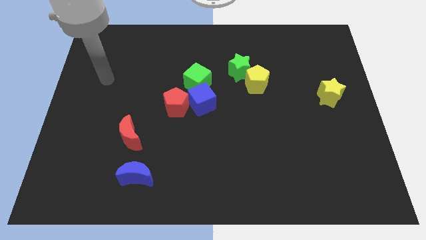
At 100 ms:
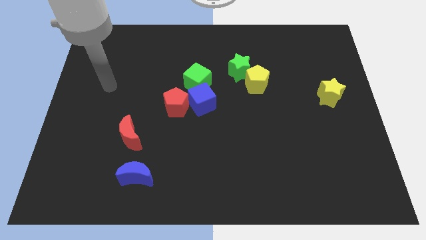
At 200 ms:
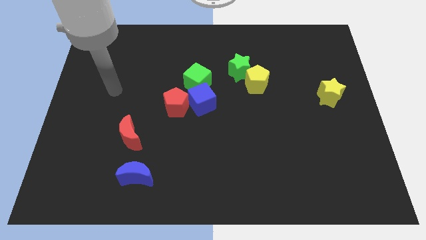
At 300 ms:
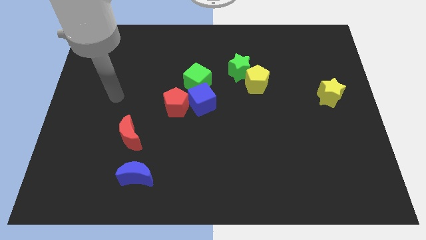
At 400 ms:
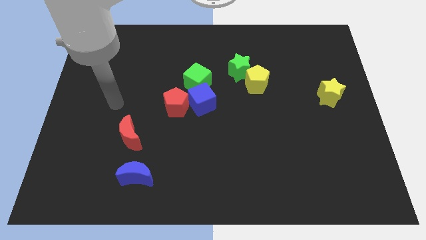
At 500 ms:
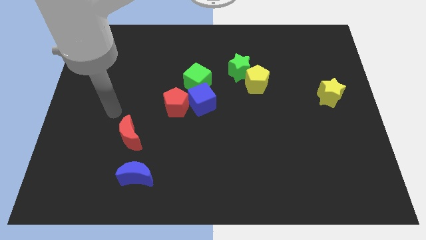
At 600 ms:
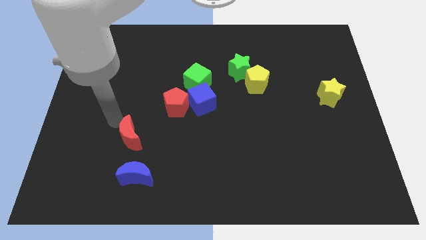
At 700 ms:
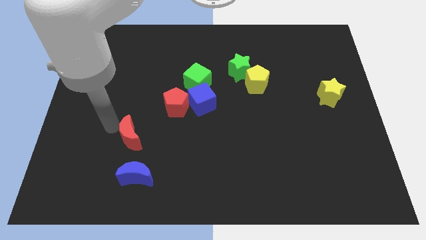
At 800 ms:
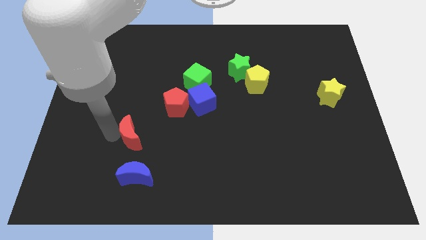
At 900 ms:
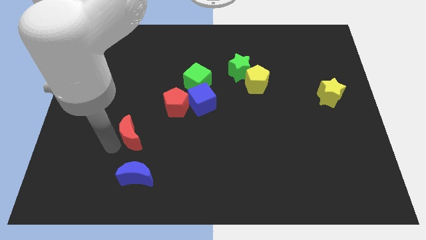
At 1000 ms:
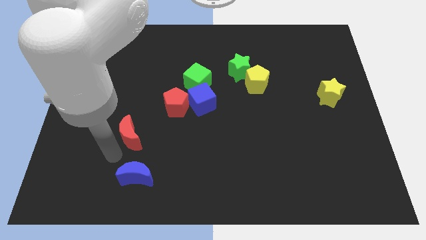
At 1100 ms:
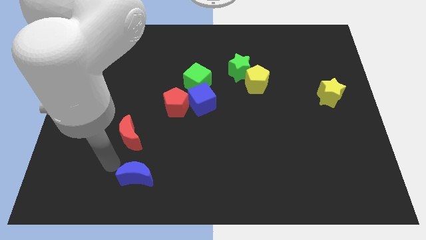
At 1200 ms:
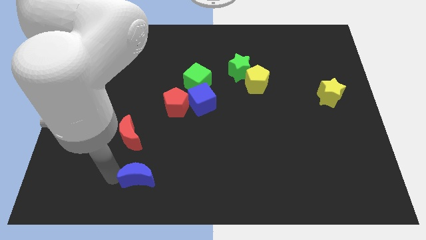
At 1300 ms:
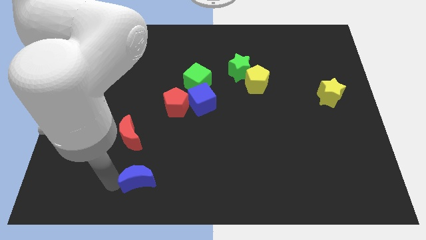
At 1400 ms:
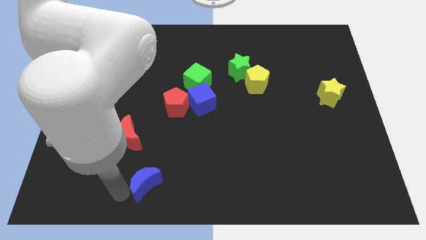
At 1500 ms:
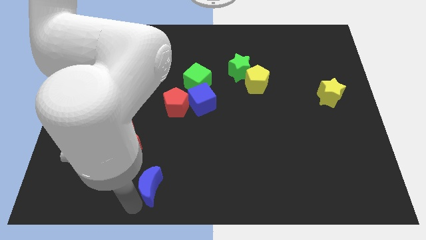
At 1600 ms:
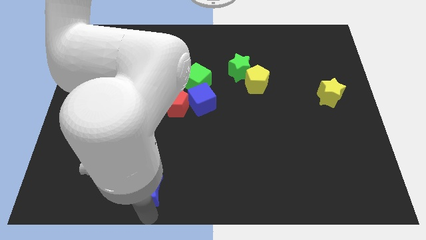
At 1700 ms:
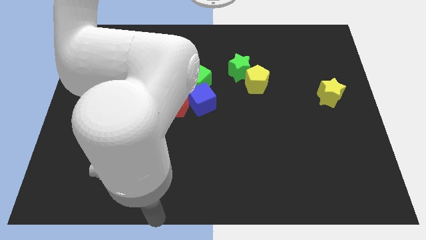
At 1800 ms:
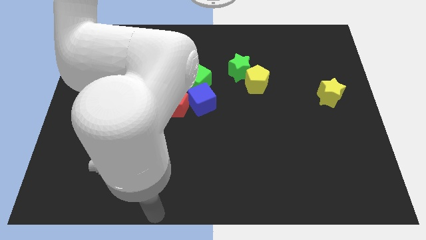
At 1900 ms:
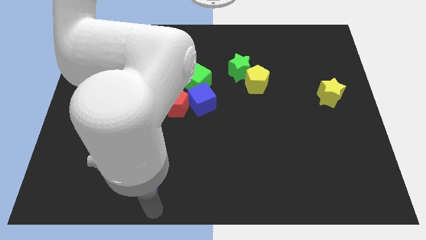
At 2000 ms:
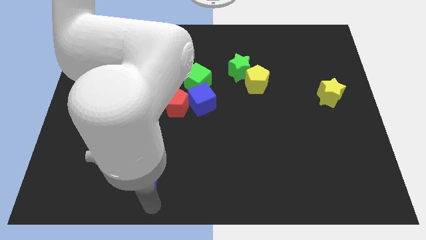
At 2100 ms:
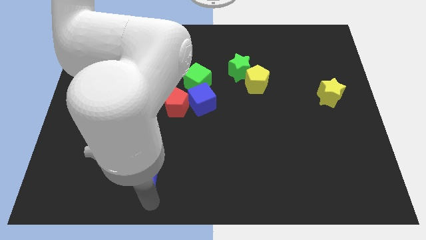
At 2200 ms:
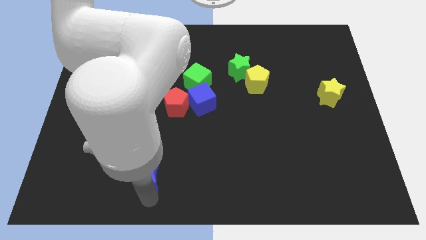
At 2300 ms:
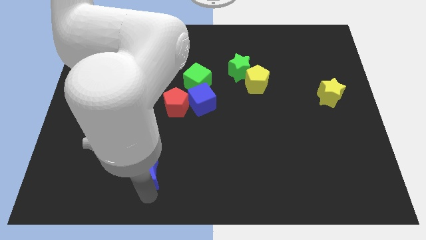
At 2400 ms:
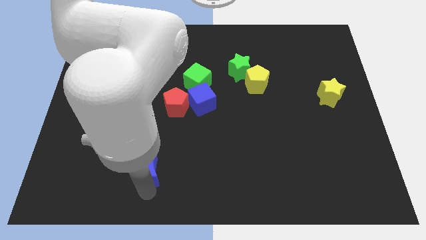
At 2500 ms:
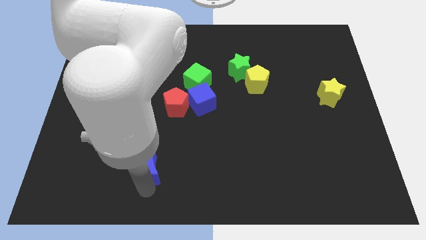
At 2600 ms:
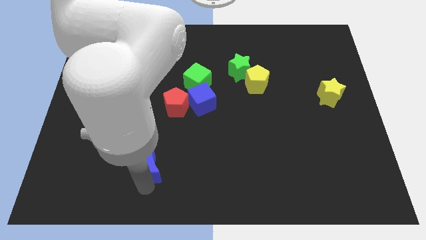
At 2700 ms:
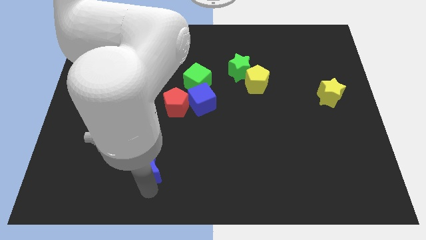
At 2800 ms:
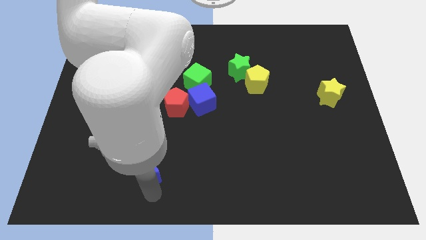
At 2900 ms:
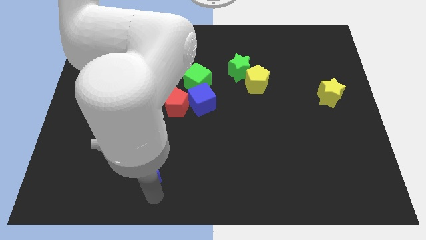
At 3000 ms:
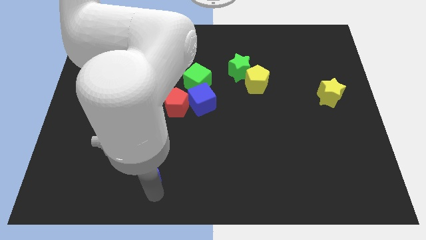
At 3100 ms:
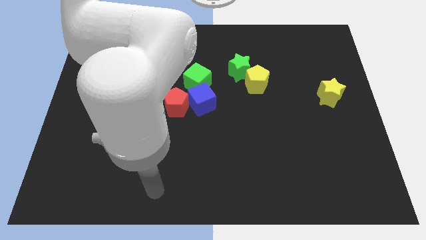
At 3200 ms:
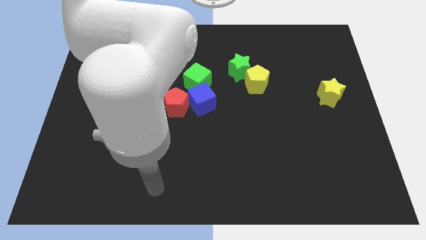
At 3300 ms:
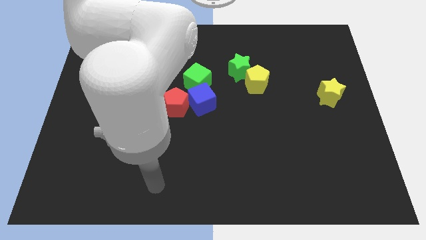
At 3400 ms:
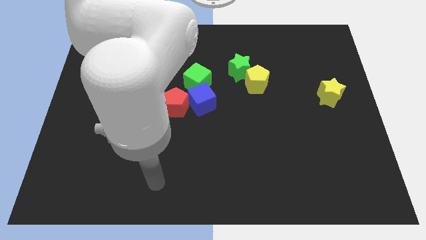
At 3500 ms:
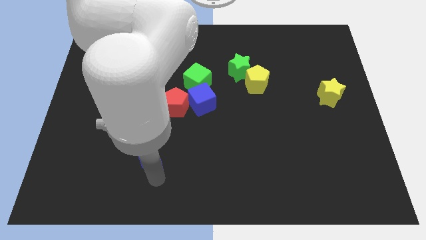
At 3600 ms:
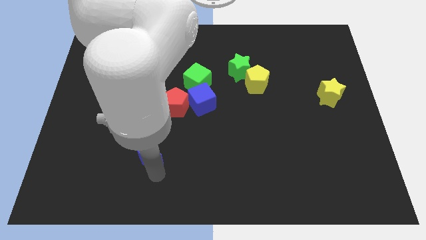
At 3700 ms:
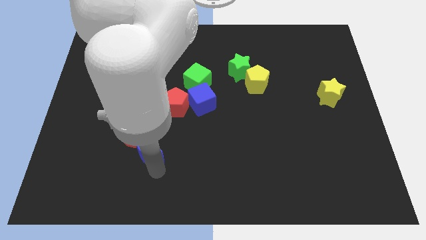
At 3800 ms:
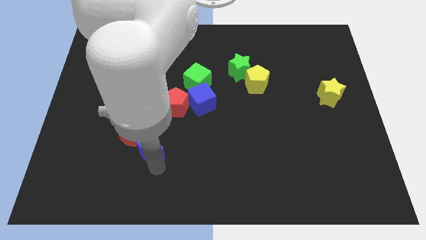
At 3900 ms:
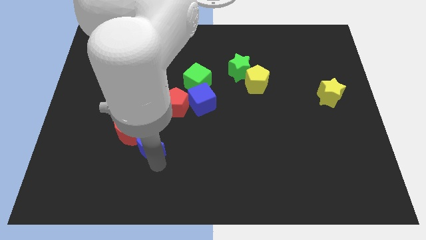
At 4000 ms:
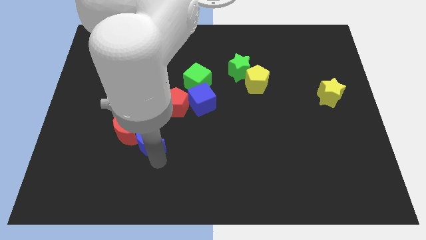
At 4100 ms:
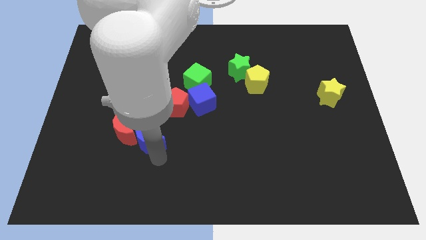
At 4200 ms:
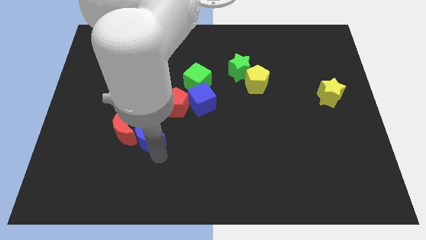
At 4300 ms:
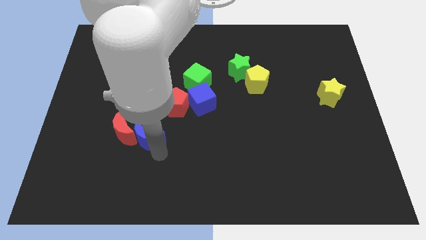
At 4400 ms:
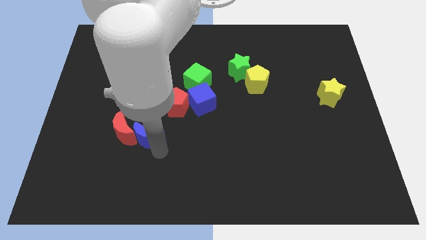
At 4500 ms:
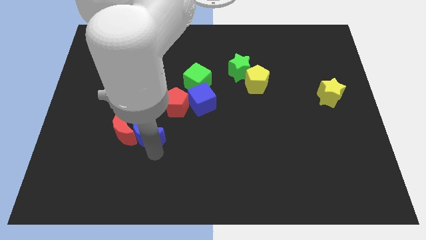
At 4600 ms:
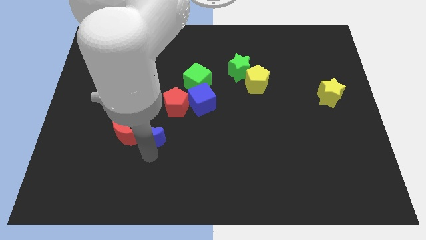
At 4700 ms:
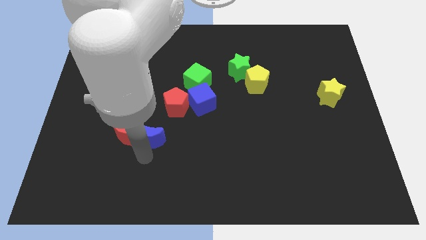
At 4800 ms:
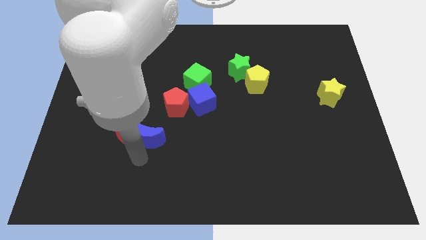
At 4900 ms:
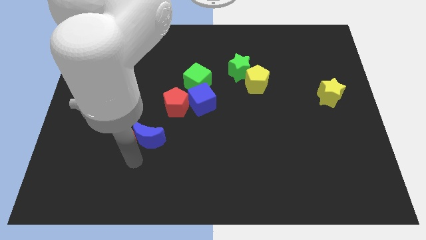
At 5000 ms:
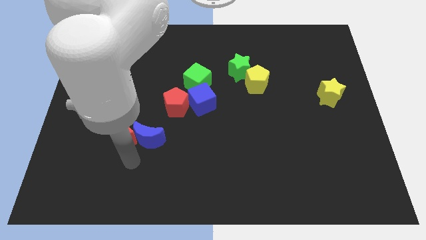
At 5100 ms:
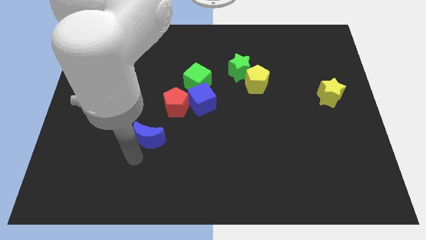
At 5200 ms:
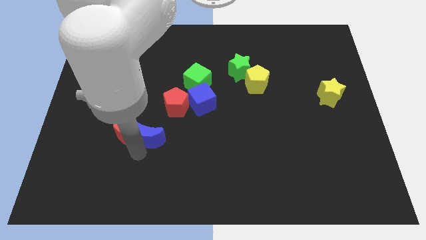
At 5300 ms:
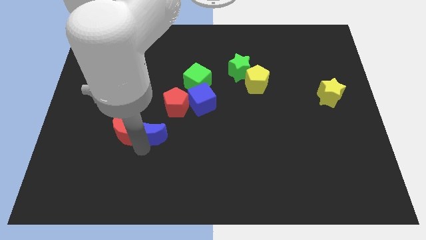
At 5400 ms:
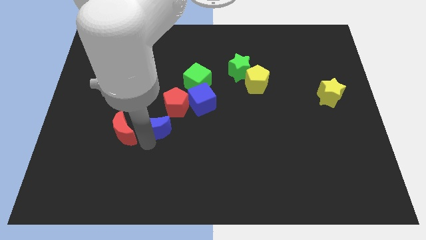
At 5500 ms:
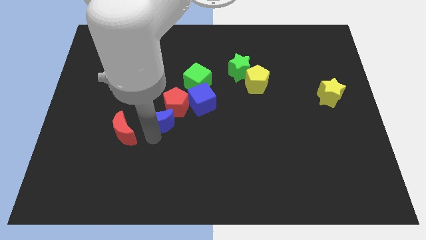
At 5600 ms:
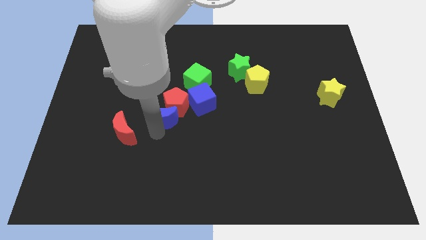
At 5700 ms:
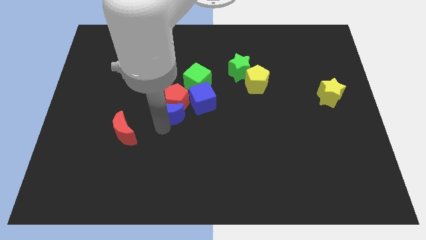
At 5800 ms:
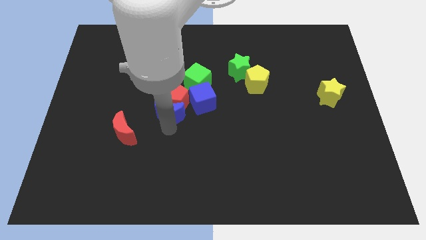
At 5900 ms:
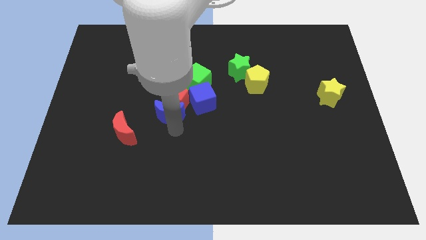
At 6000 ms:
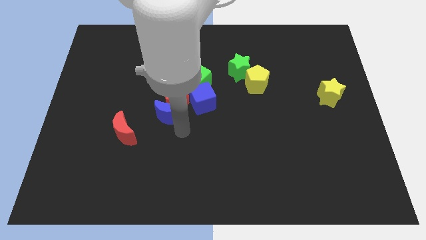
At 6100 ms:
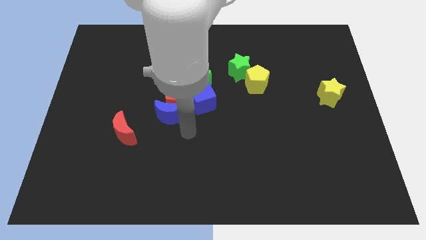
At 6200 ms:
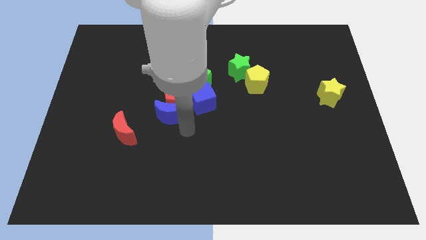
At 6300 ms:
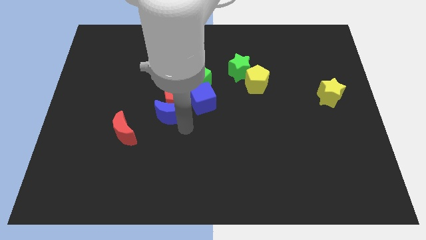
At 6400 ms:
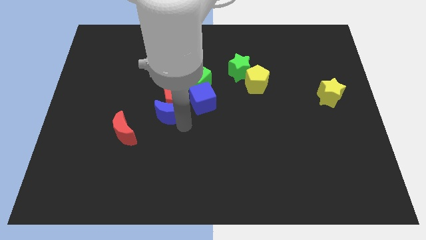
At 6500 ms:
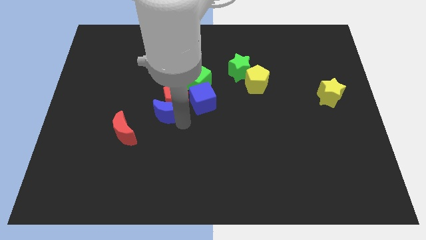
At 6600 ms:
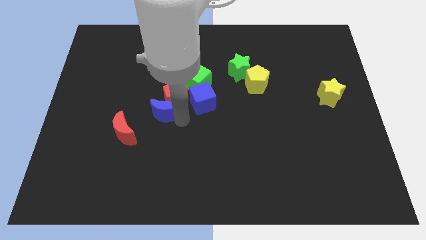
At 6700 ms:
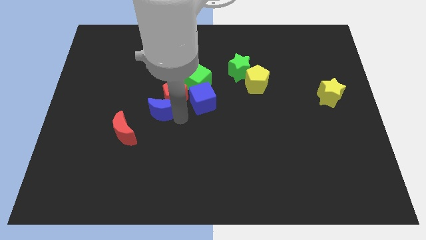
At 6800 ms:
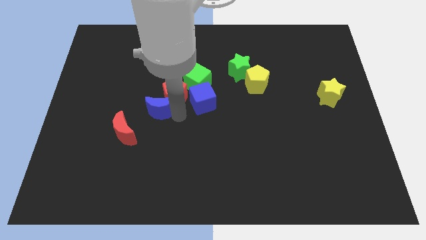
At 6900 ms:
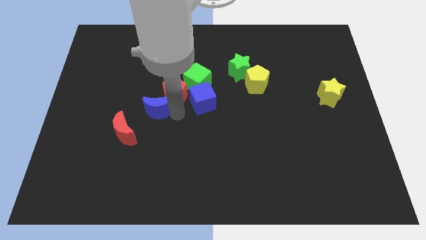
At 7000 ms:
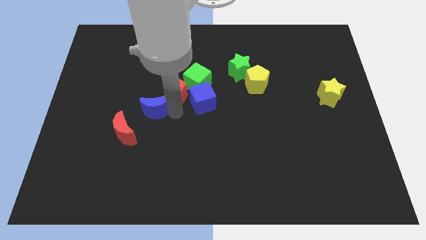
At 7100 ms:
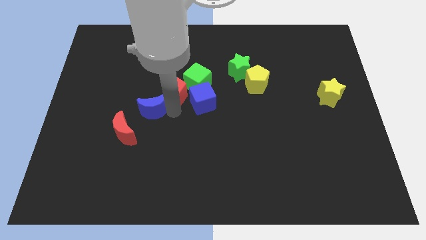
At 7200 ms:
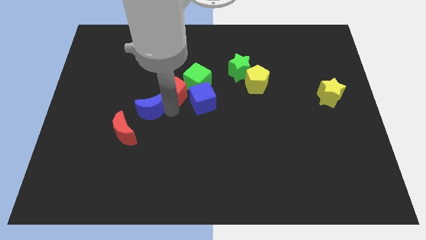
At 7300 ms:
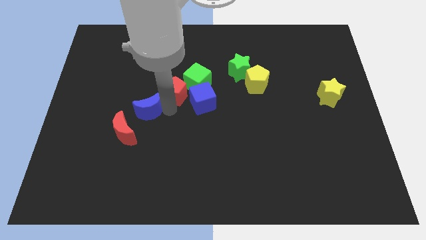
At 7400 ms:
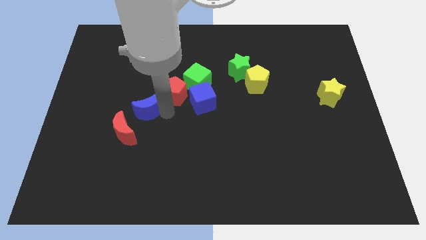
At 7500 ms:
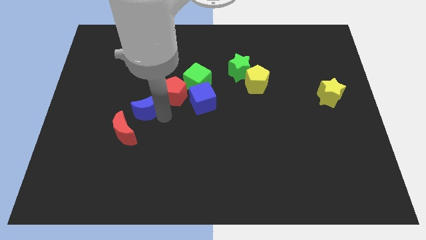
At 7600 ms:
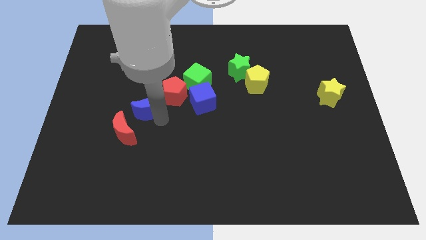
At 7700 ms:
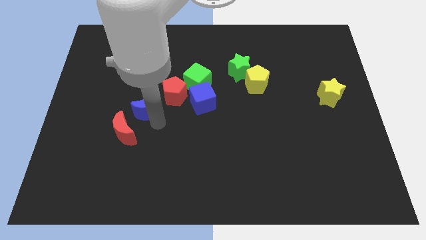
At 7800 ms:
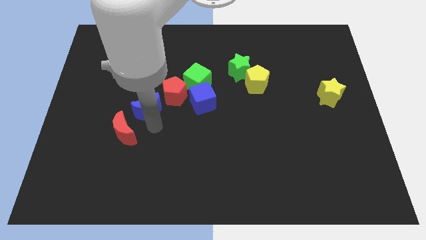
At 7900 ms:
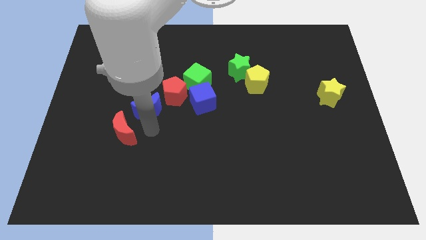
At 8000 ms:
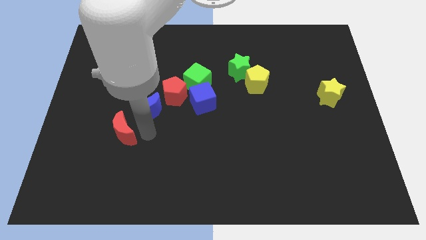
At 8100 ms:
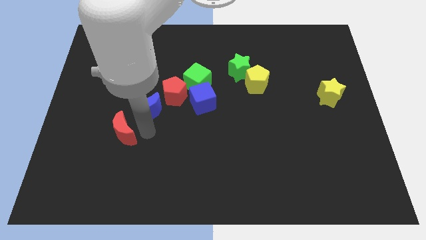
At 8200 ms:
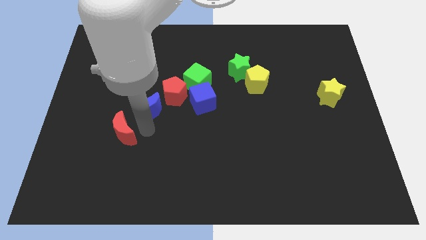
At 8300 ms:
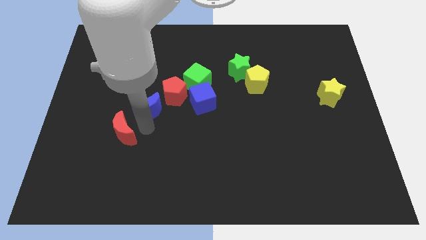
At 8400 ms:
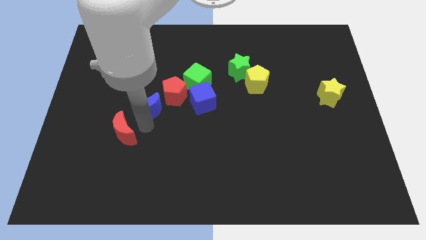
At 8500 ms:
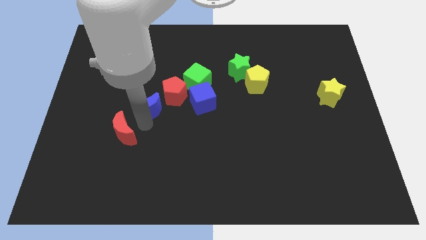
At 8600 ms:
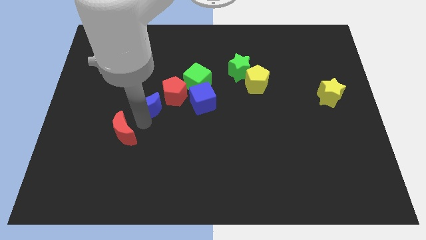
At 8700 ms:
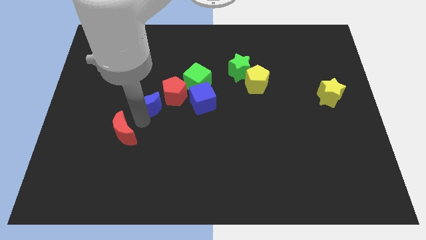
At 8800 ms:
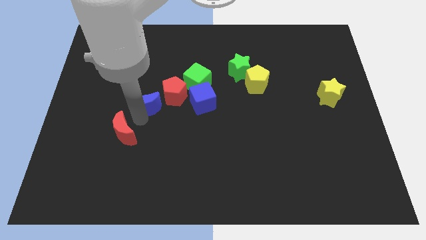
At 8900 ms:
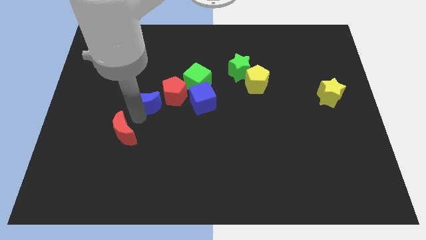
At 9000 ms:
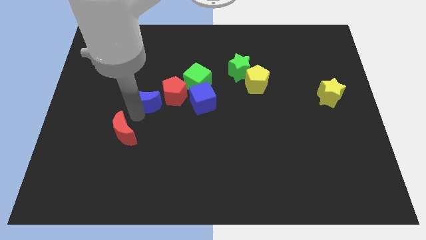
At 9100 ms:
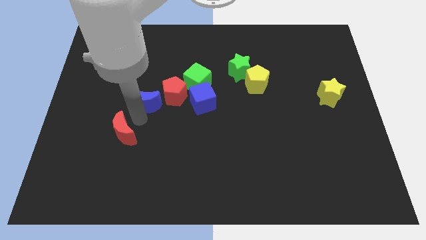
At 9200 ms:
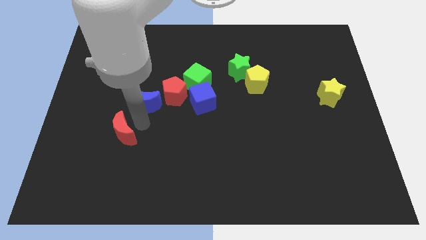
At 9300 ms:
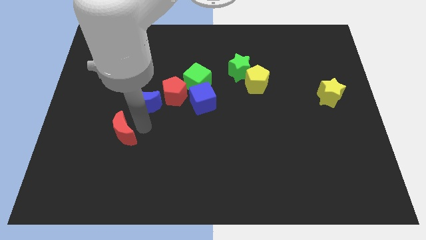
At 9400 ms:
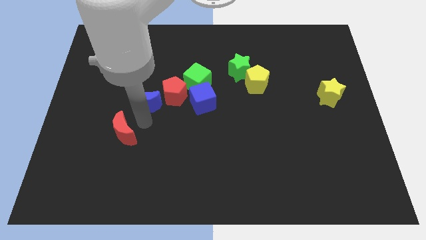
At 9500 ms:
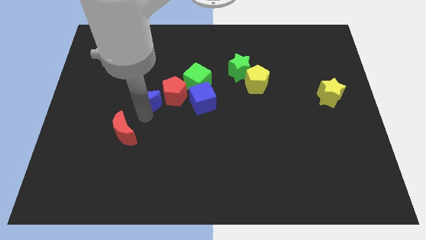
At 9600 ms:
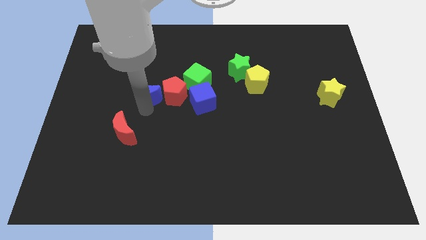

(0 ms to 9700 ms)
move the blue moon upwards
